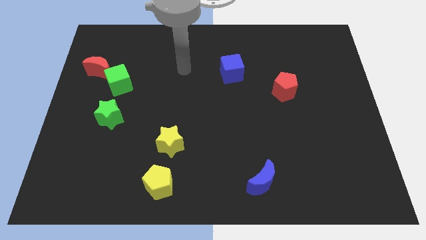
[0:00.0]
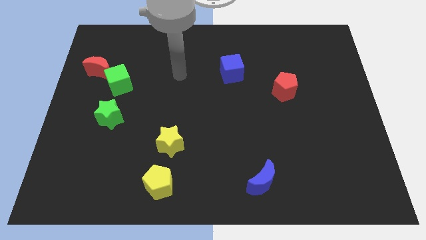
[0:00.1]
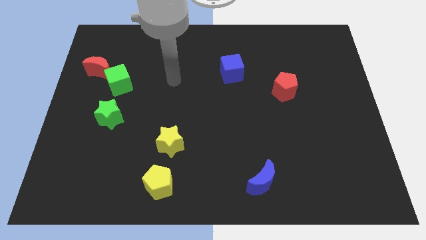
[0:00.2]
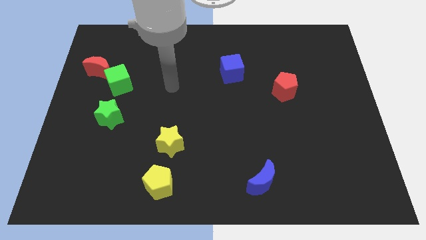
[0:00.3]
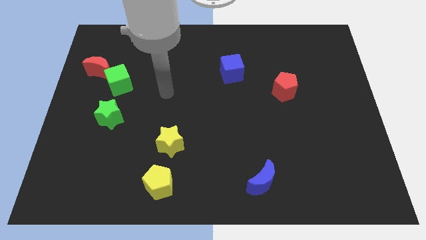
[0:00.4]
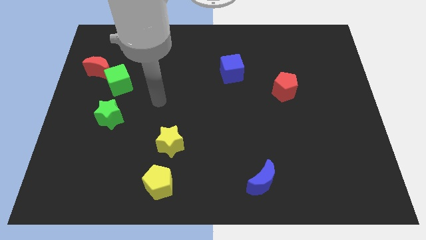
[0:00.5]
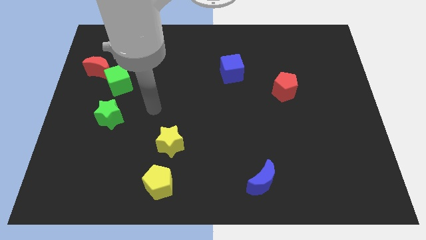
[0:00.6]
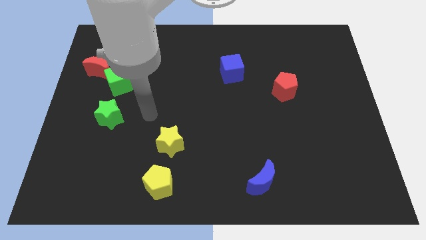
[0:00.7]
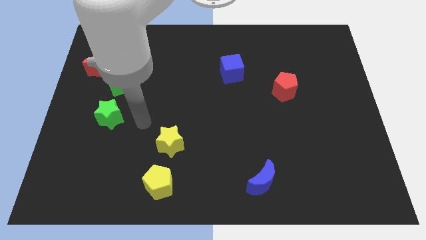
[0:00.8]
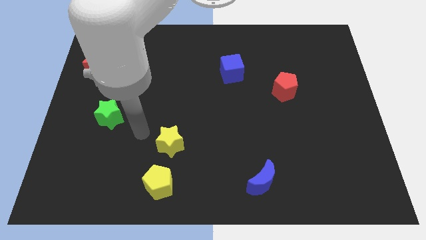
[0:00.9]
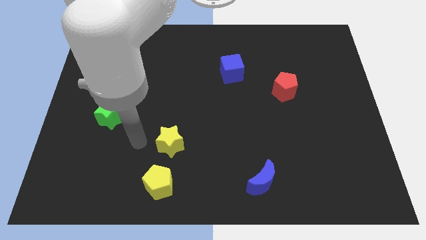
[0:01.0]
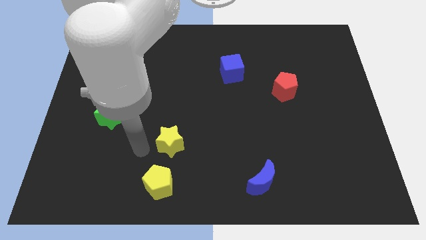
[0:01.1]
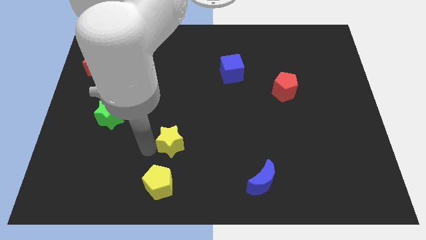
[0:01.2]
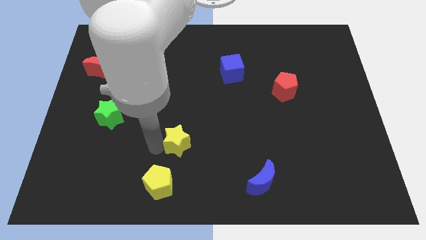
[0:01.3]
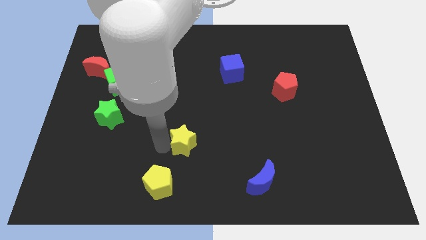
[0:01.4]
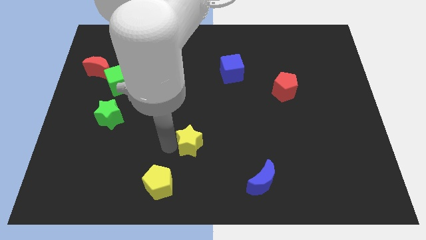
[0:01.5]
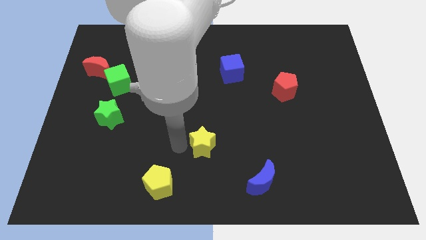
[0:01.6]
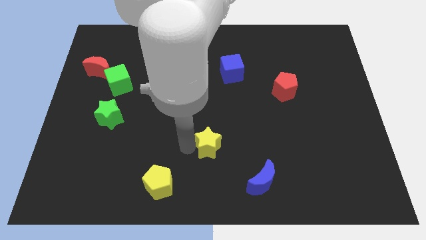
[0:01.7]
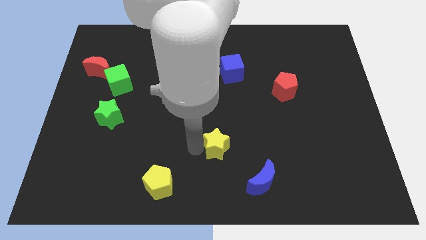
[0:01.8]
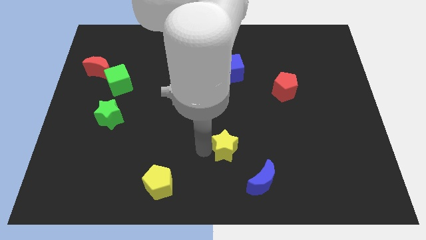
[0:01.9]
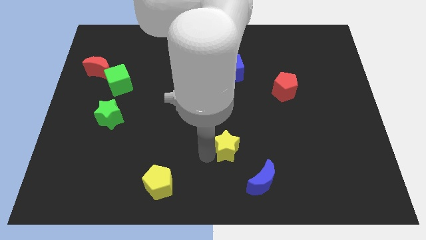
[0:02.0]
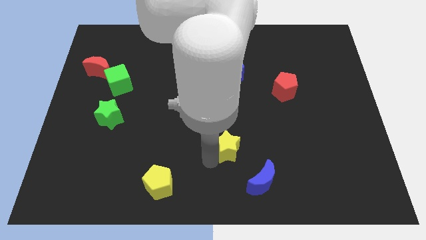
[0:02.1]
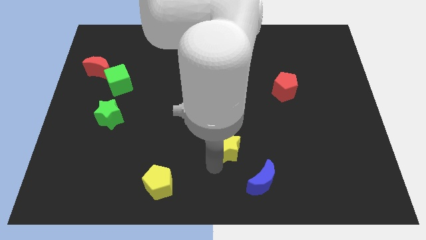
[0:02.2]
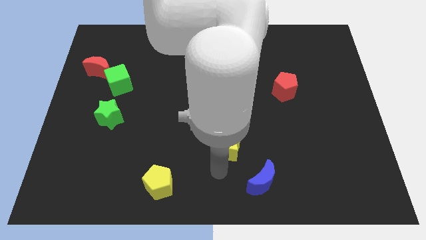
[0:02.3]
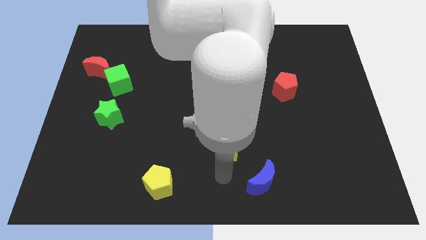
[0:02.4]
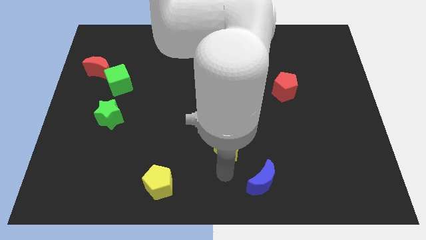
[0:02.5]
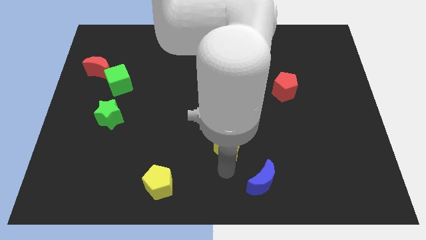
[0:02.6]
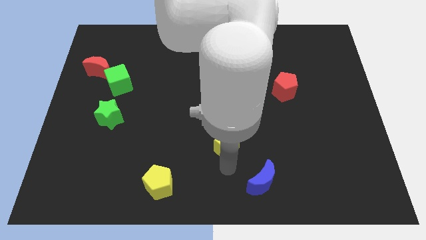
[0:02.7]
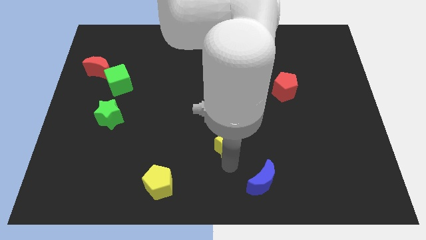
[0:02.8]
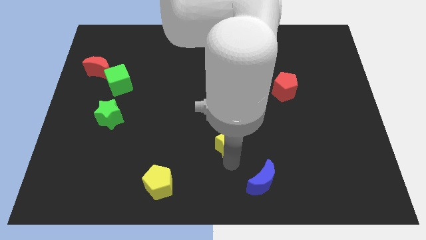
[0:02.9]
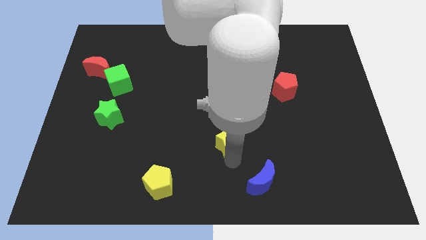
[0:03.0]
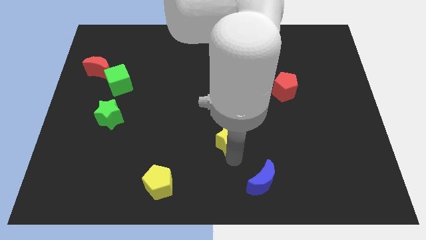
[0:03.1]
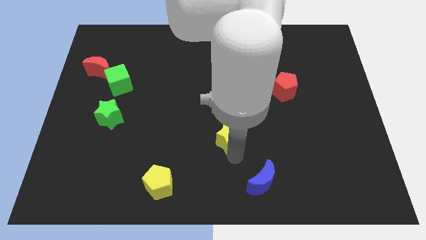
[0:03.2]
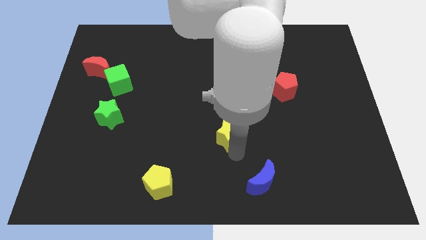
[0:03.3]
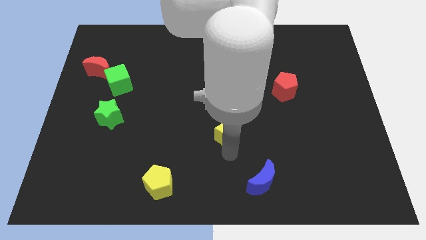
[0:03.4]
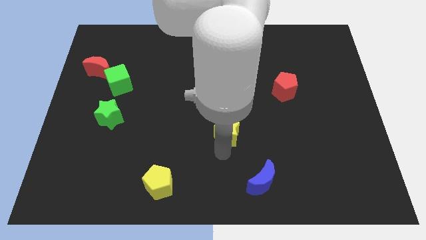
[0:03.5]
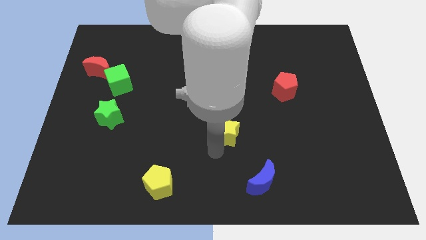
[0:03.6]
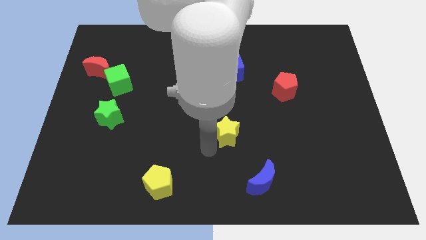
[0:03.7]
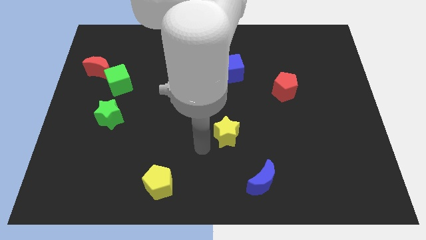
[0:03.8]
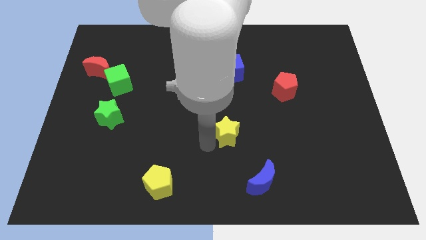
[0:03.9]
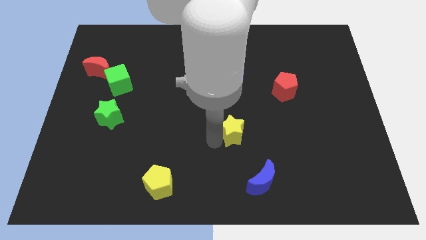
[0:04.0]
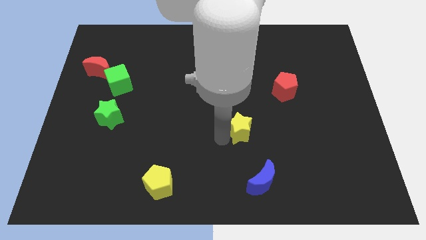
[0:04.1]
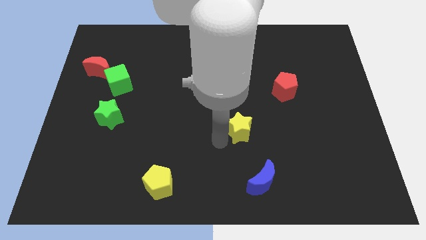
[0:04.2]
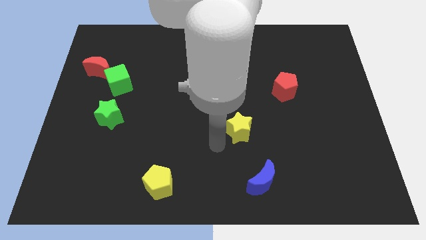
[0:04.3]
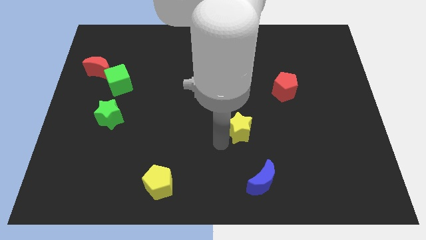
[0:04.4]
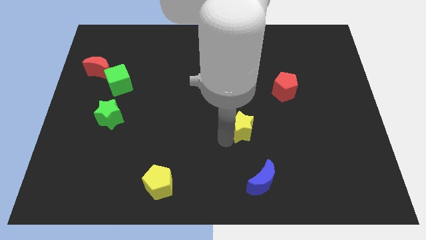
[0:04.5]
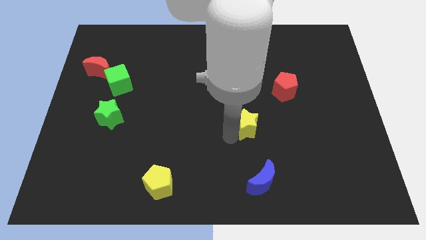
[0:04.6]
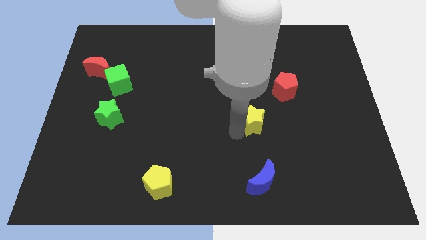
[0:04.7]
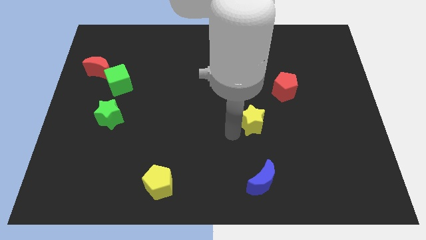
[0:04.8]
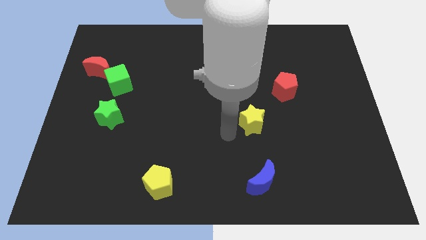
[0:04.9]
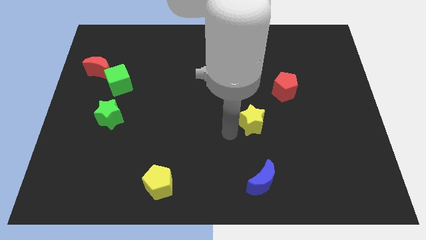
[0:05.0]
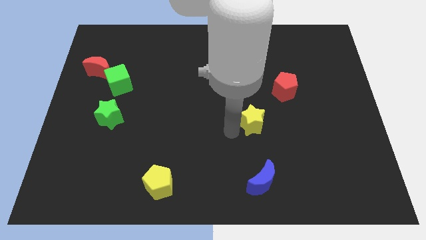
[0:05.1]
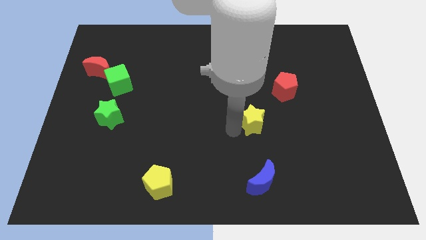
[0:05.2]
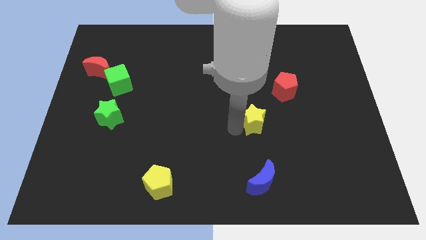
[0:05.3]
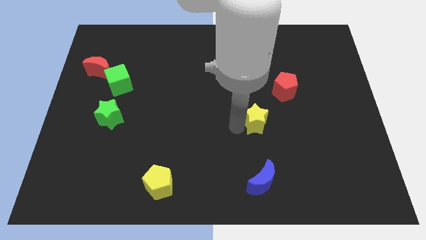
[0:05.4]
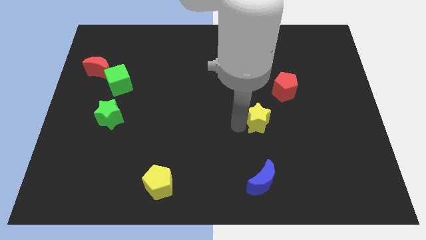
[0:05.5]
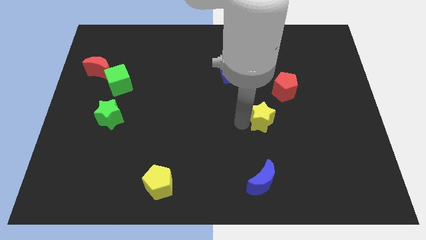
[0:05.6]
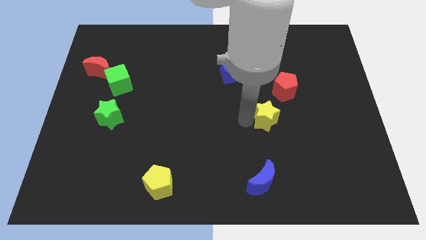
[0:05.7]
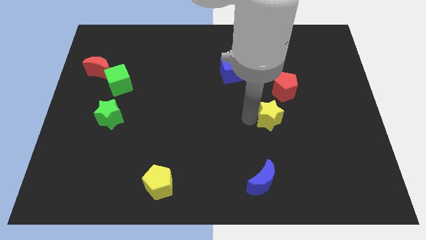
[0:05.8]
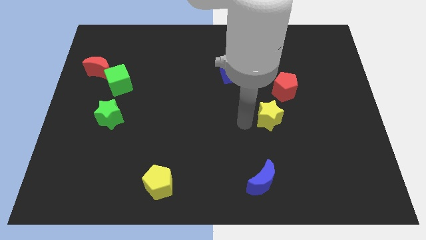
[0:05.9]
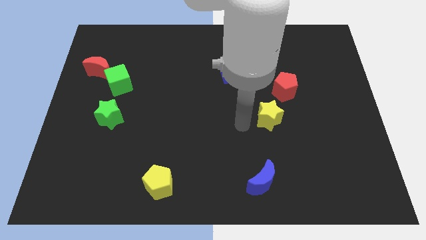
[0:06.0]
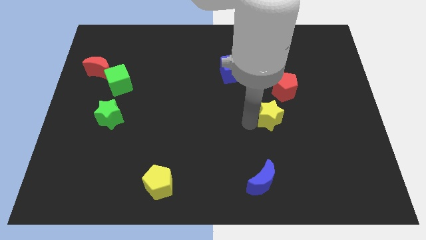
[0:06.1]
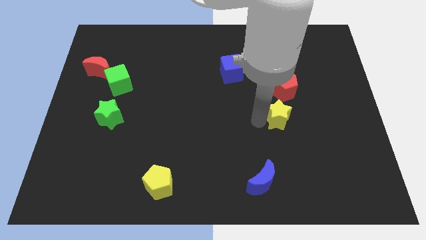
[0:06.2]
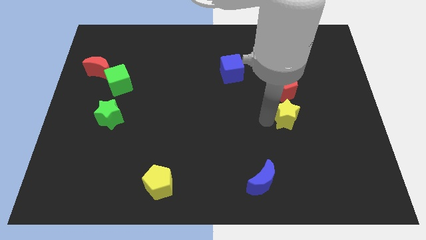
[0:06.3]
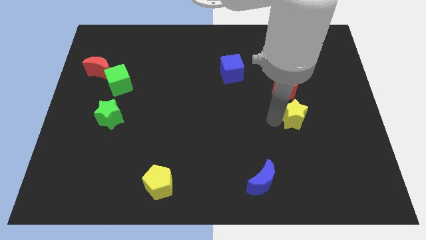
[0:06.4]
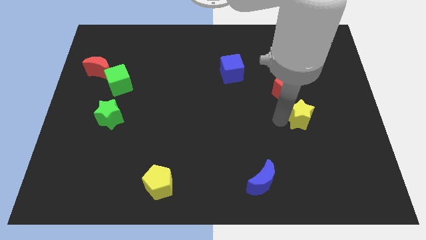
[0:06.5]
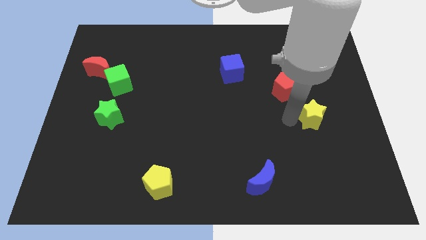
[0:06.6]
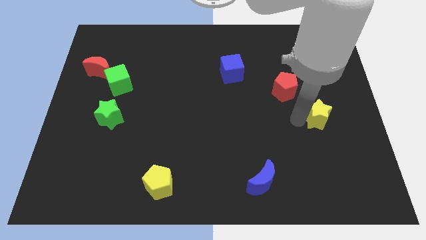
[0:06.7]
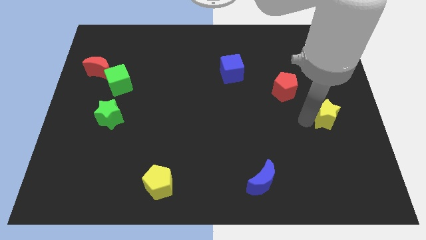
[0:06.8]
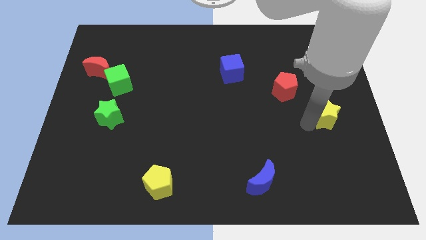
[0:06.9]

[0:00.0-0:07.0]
push the yellow star to the right side
